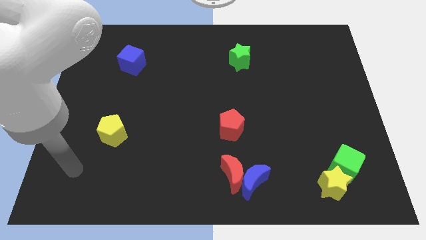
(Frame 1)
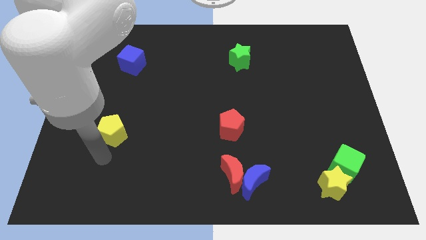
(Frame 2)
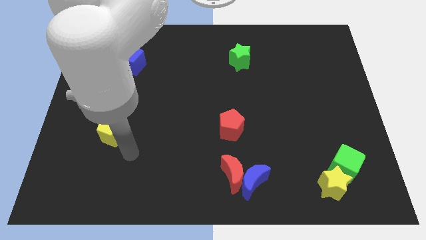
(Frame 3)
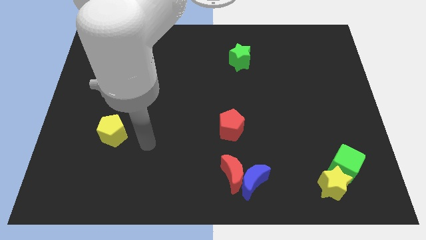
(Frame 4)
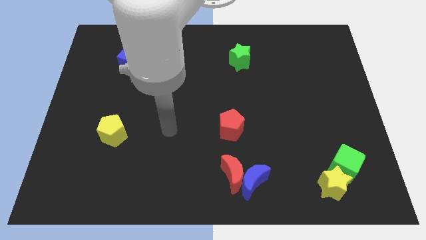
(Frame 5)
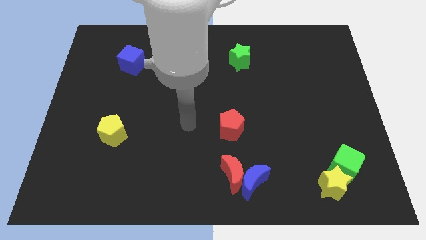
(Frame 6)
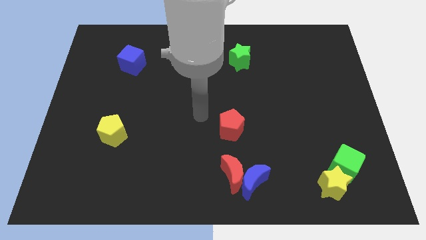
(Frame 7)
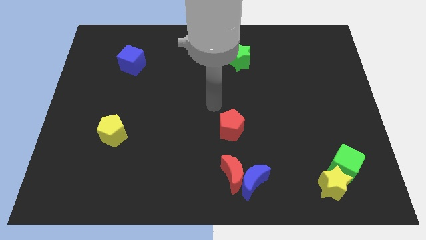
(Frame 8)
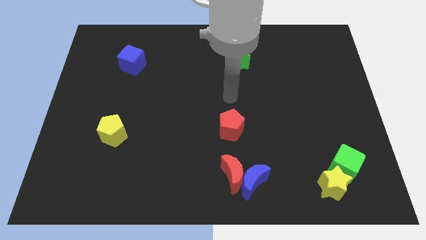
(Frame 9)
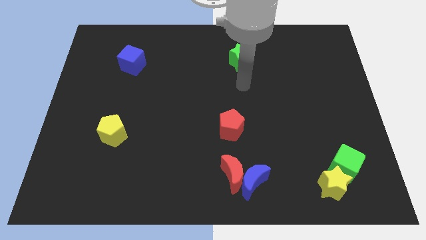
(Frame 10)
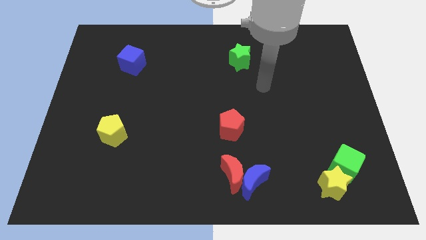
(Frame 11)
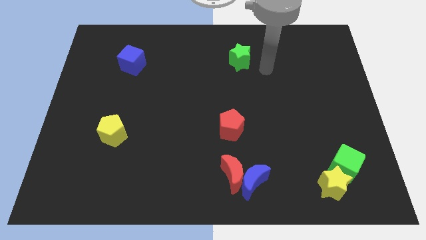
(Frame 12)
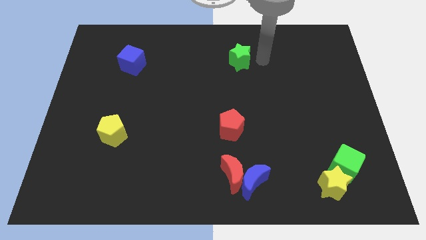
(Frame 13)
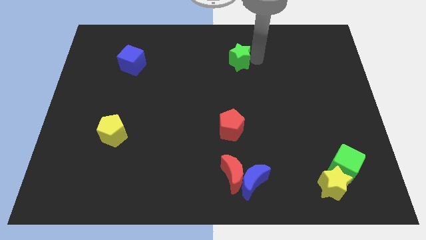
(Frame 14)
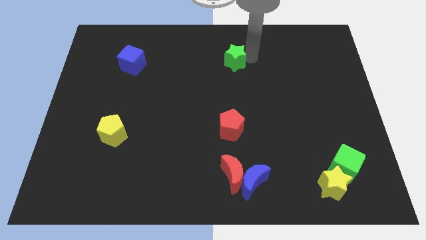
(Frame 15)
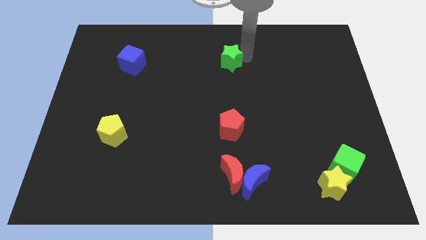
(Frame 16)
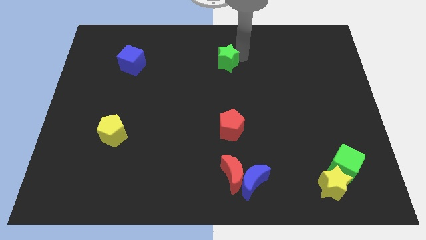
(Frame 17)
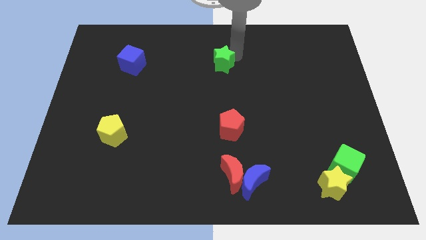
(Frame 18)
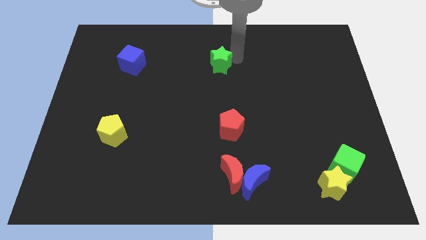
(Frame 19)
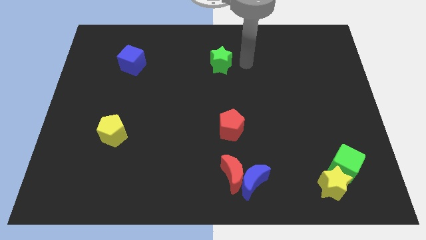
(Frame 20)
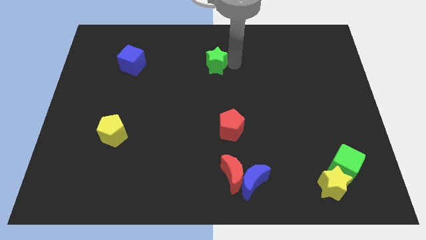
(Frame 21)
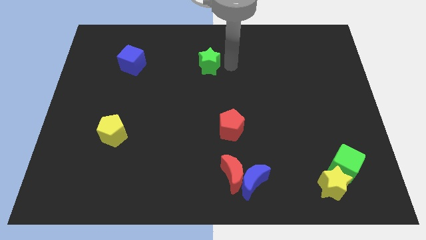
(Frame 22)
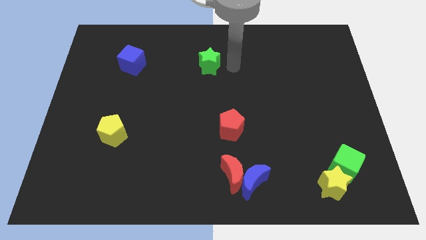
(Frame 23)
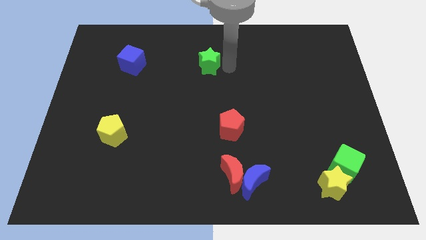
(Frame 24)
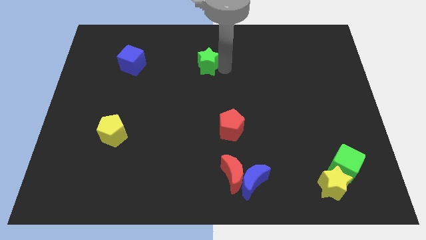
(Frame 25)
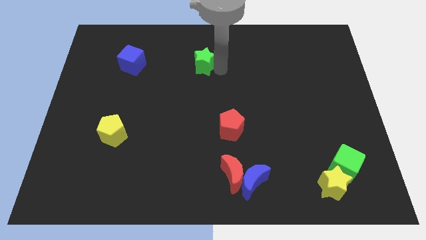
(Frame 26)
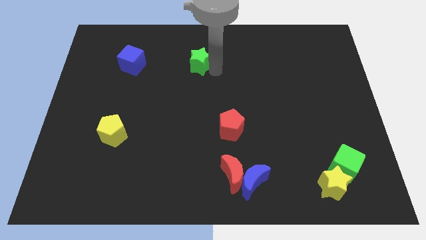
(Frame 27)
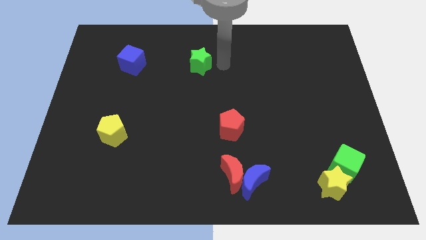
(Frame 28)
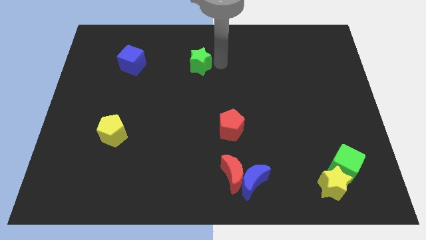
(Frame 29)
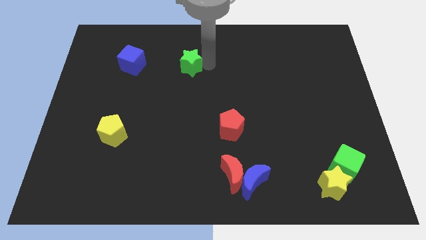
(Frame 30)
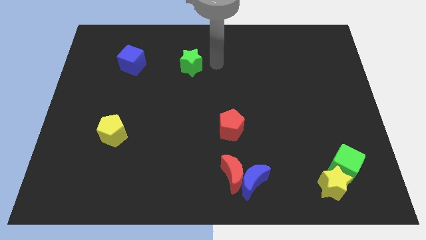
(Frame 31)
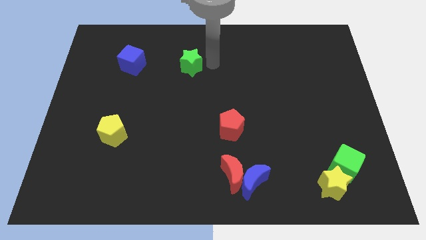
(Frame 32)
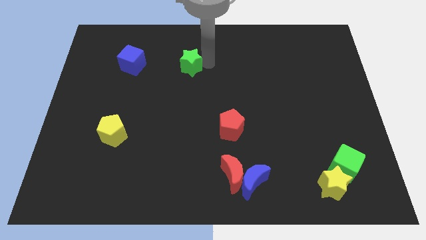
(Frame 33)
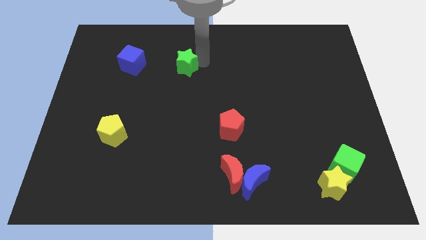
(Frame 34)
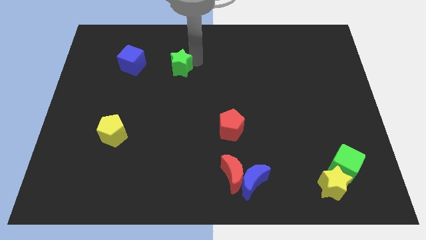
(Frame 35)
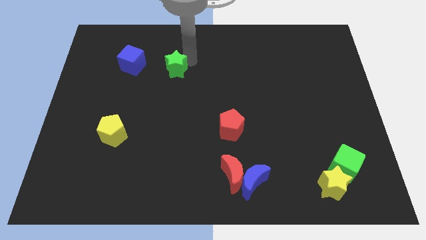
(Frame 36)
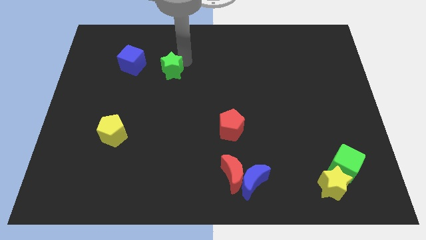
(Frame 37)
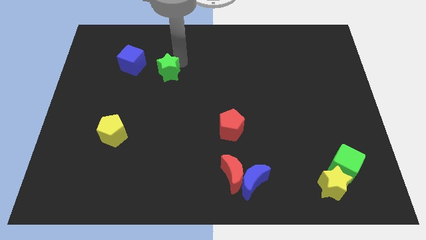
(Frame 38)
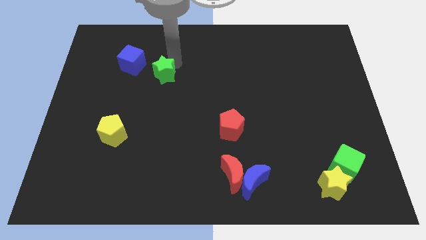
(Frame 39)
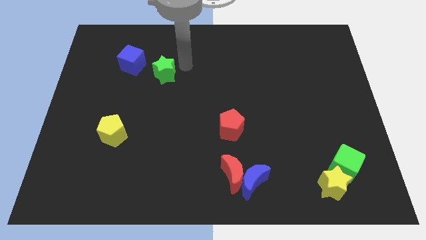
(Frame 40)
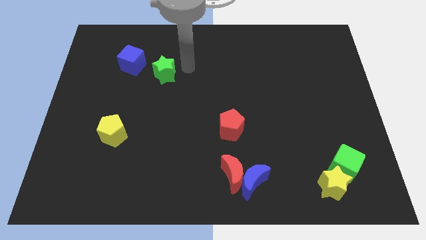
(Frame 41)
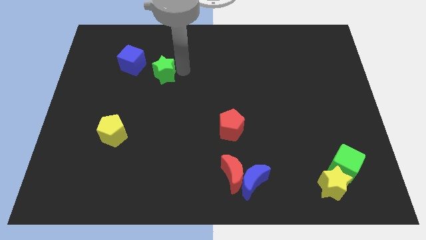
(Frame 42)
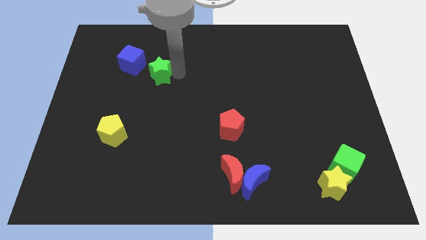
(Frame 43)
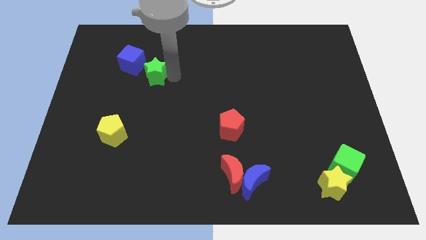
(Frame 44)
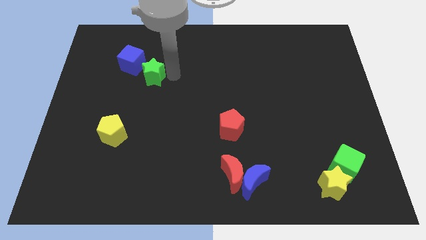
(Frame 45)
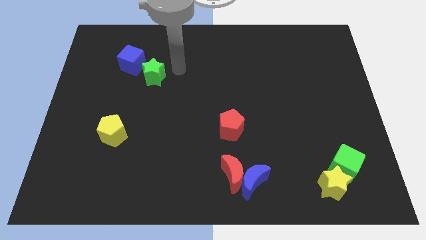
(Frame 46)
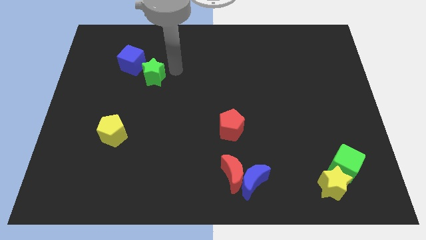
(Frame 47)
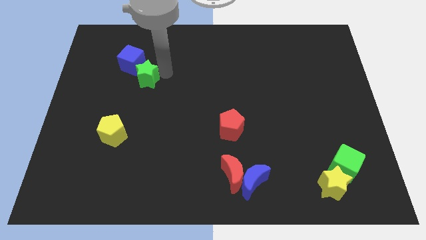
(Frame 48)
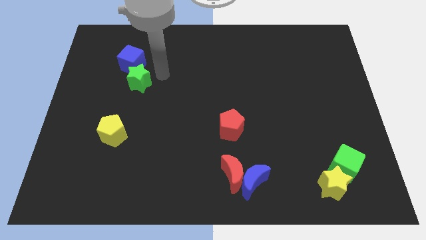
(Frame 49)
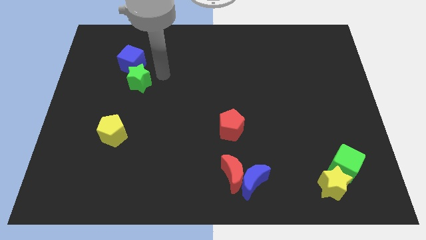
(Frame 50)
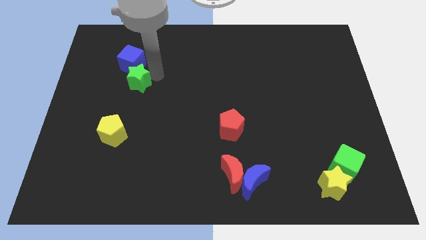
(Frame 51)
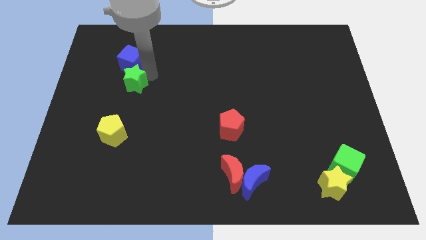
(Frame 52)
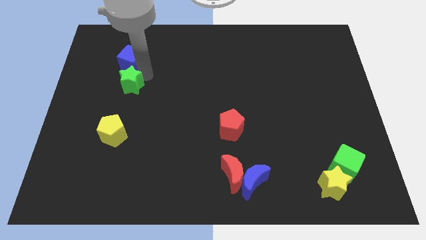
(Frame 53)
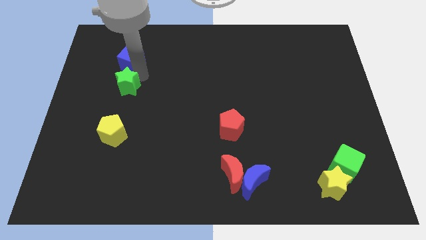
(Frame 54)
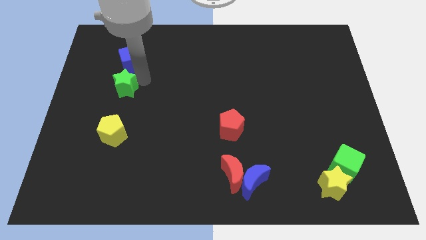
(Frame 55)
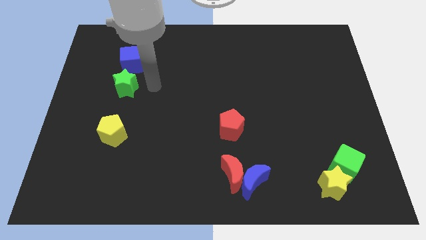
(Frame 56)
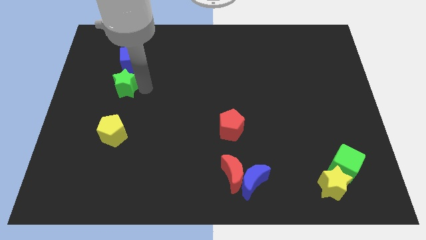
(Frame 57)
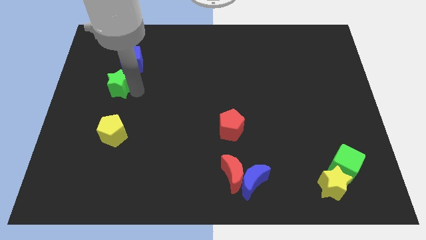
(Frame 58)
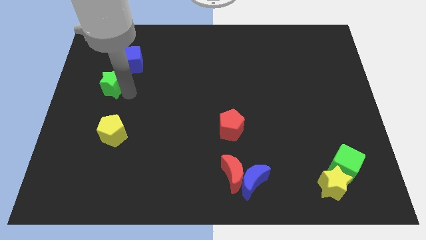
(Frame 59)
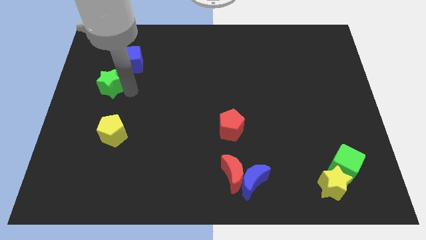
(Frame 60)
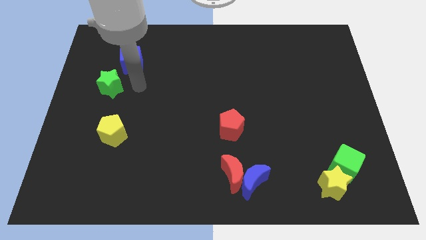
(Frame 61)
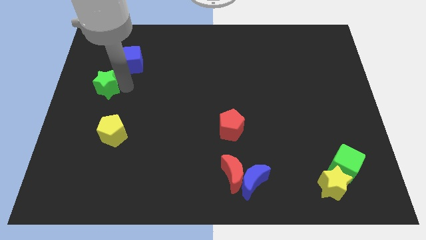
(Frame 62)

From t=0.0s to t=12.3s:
push the green star to the left side of the board

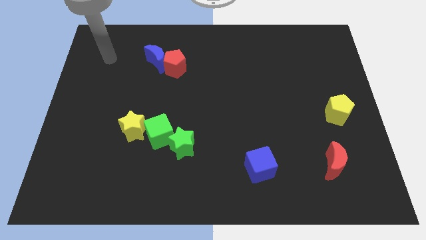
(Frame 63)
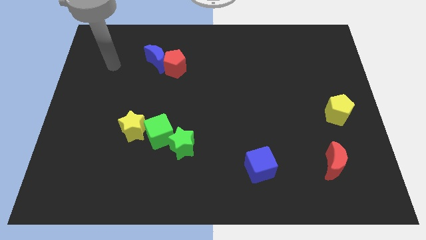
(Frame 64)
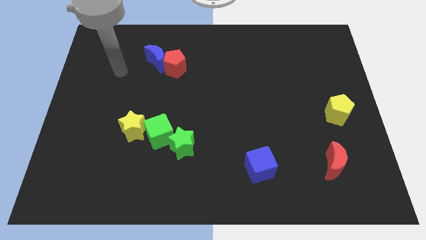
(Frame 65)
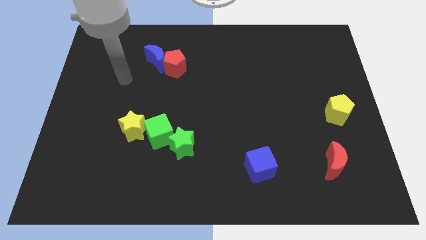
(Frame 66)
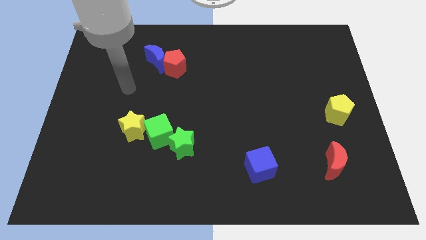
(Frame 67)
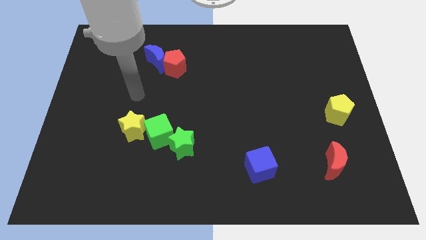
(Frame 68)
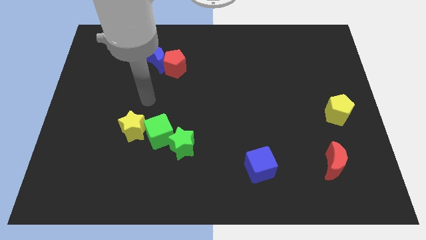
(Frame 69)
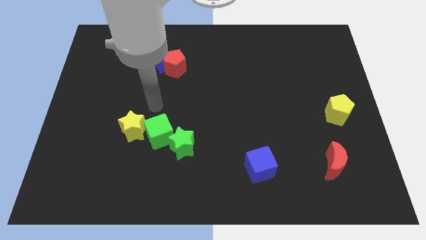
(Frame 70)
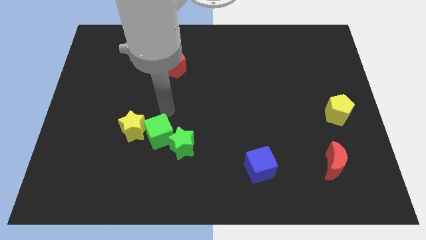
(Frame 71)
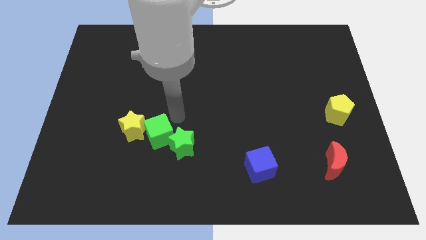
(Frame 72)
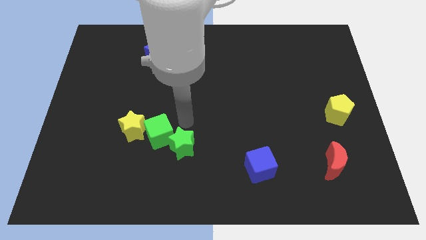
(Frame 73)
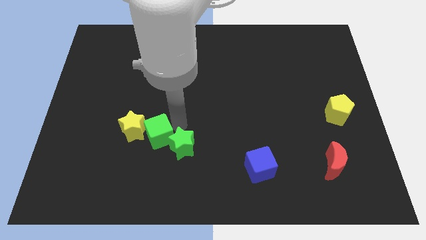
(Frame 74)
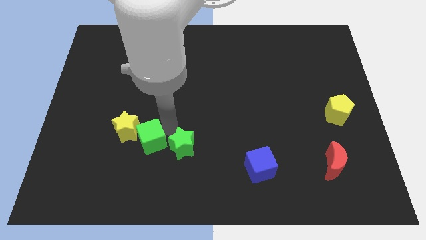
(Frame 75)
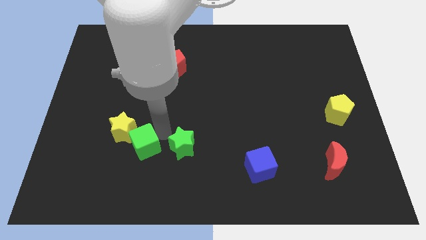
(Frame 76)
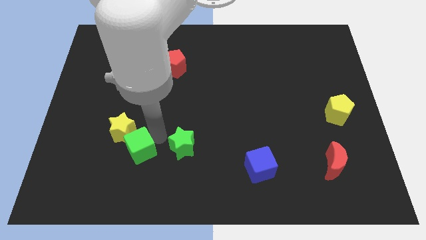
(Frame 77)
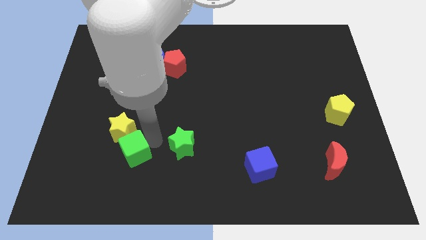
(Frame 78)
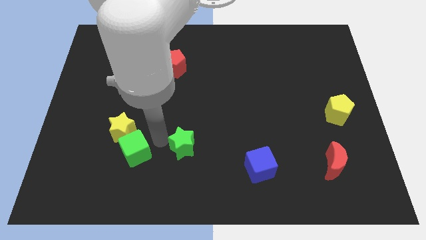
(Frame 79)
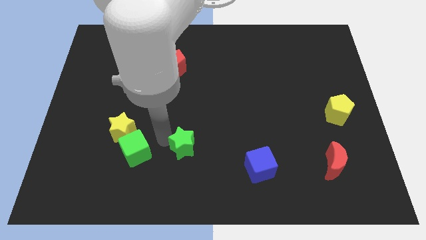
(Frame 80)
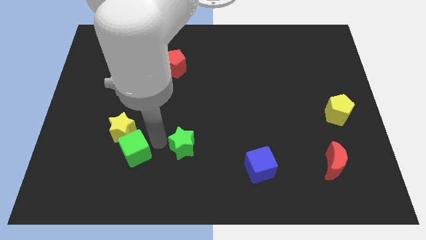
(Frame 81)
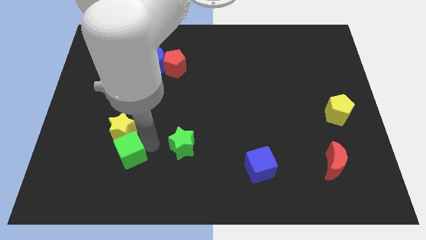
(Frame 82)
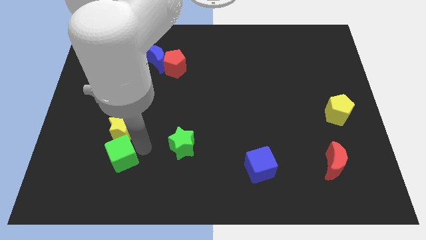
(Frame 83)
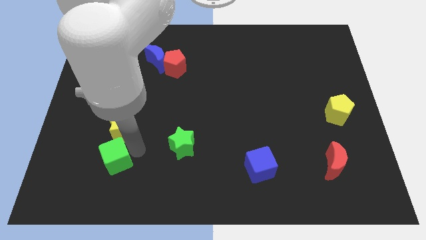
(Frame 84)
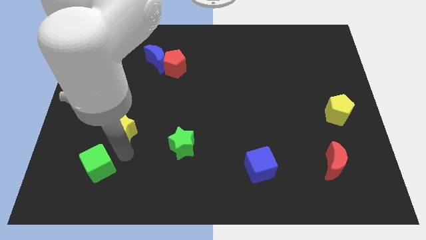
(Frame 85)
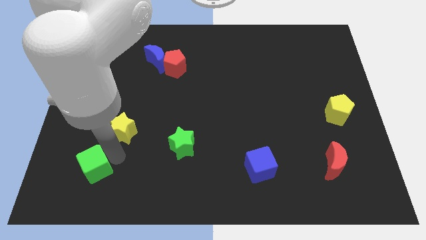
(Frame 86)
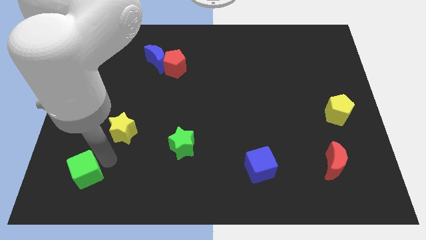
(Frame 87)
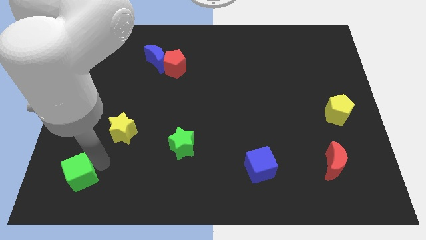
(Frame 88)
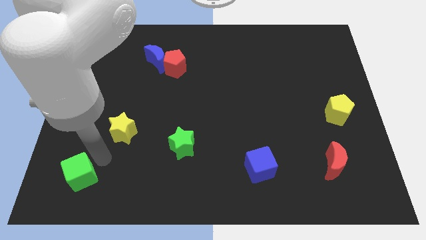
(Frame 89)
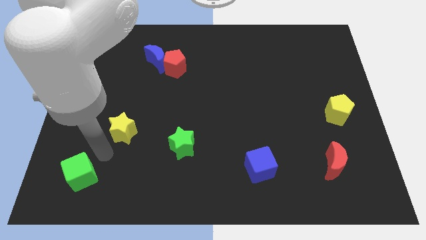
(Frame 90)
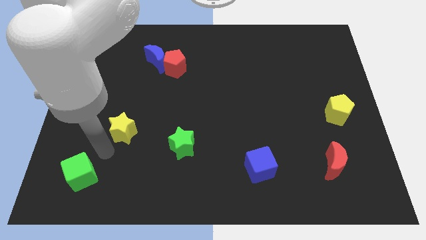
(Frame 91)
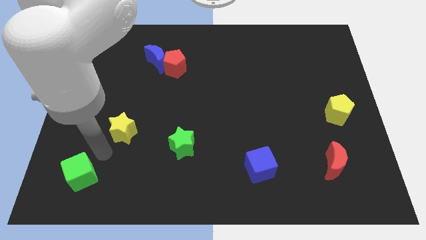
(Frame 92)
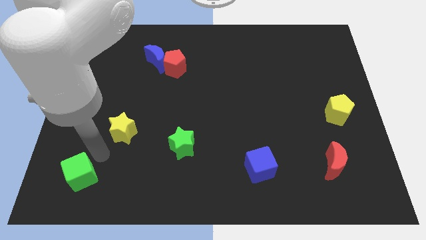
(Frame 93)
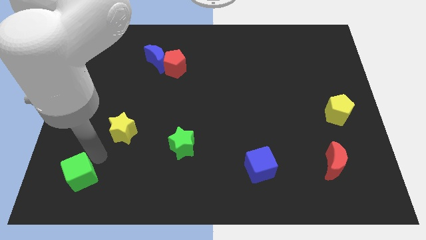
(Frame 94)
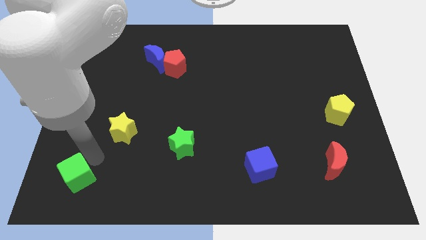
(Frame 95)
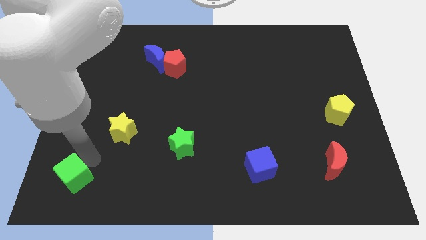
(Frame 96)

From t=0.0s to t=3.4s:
slide the green cube to the bottom left
